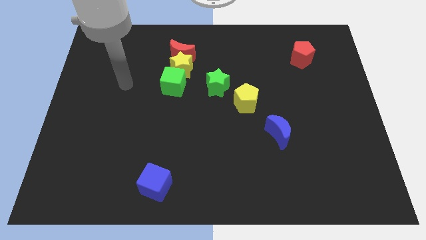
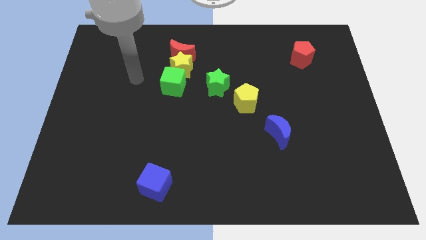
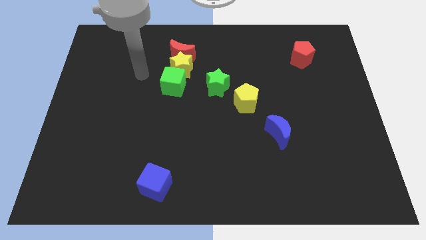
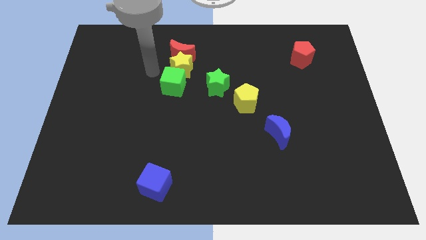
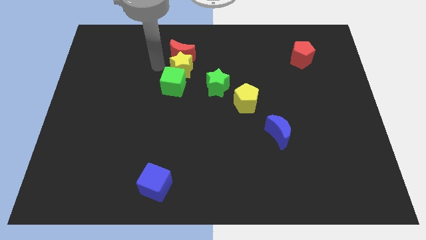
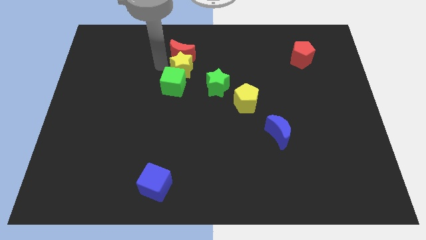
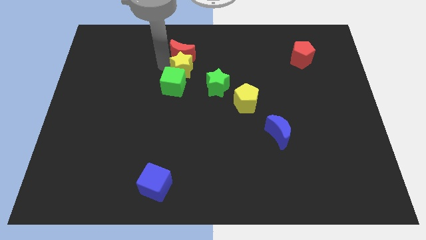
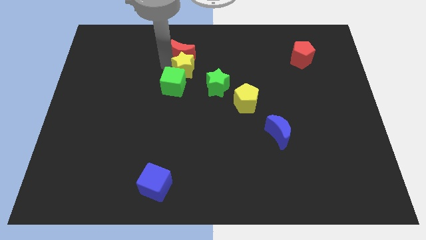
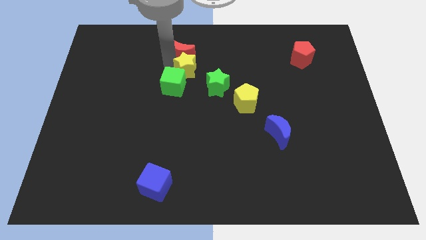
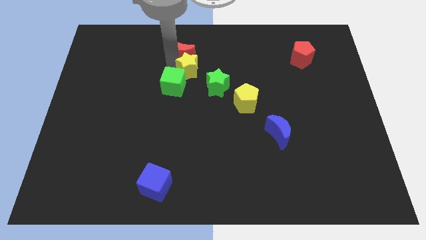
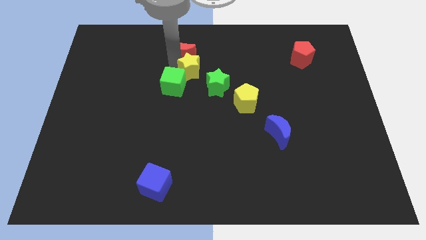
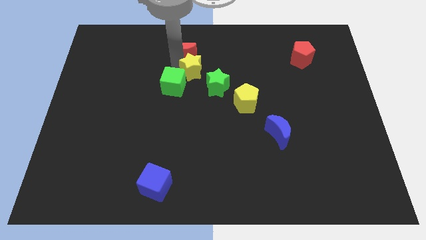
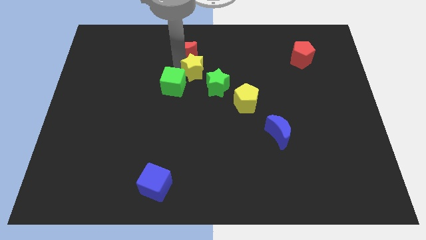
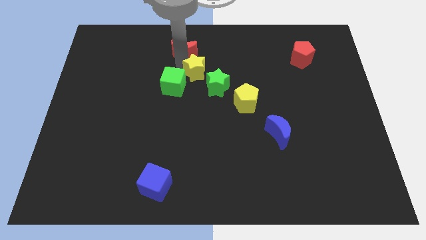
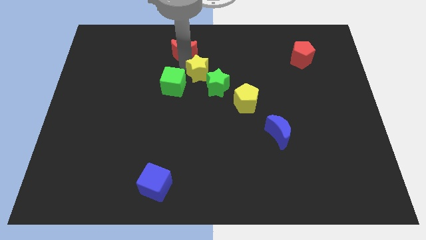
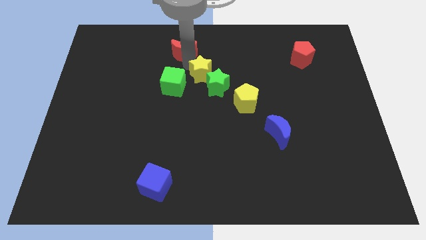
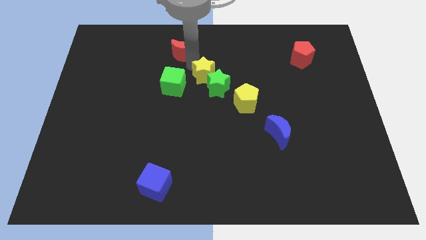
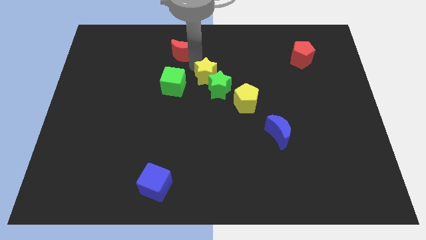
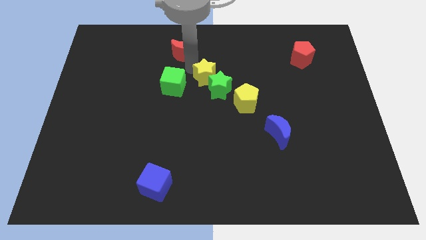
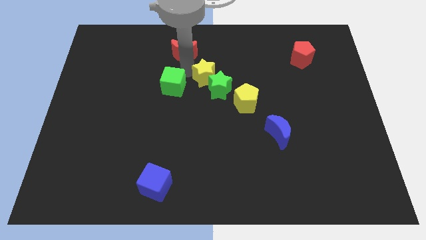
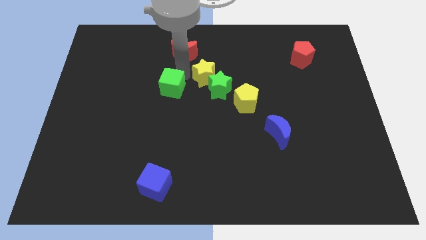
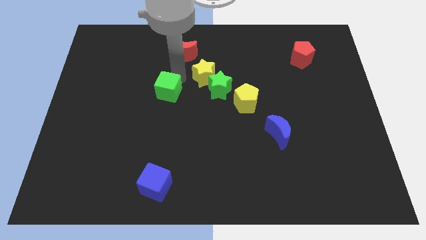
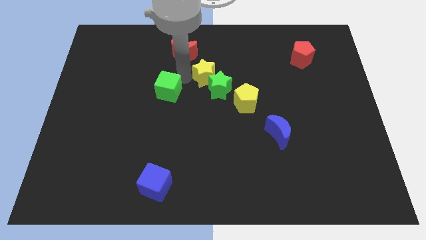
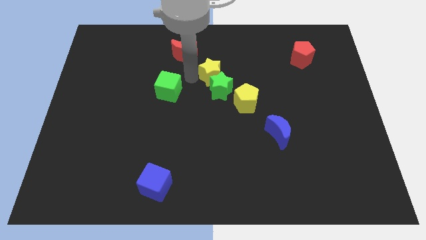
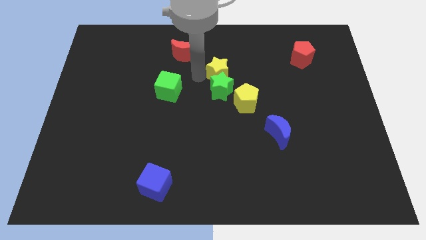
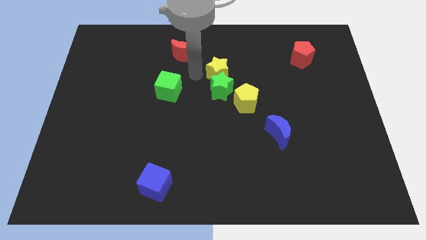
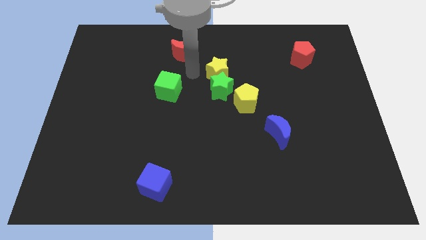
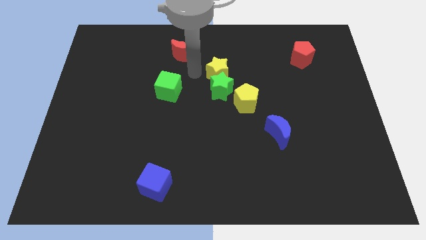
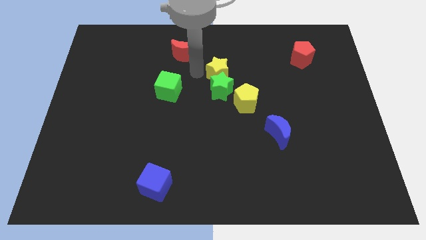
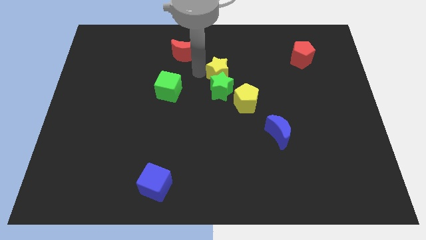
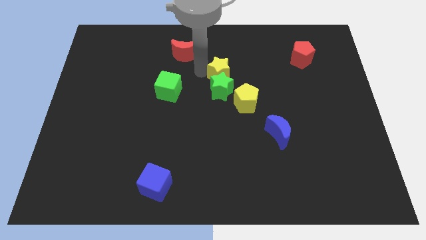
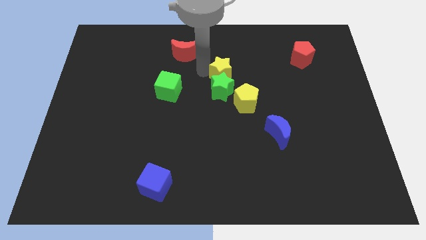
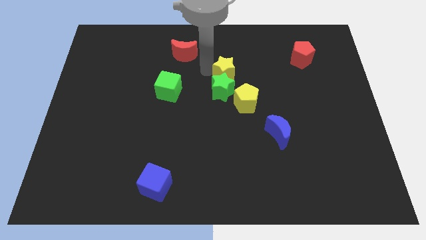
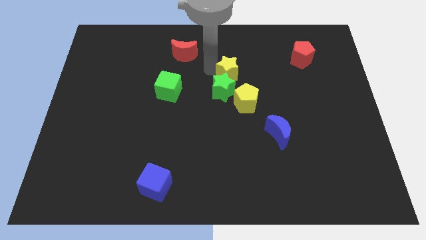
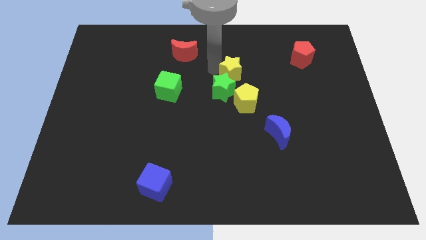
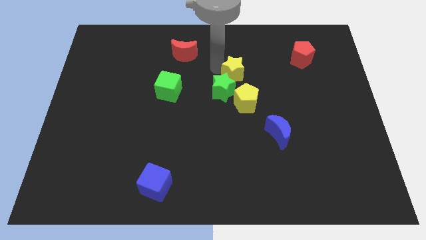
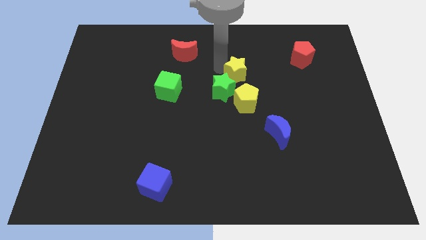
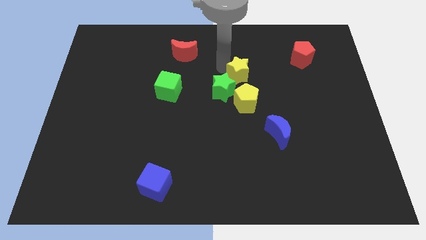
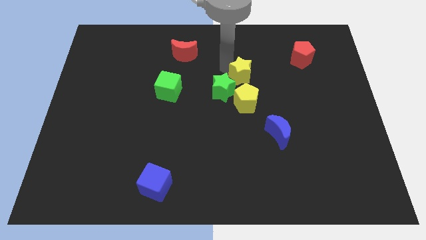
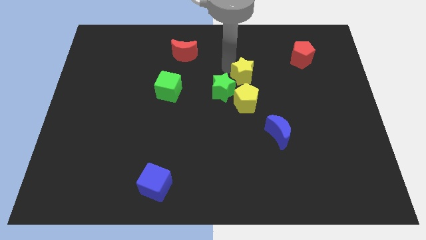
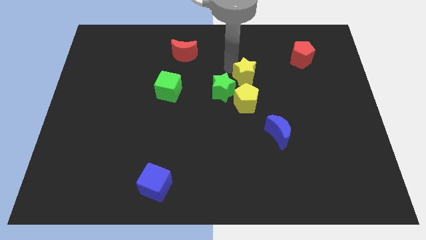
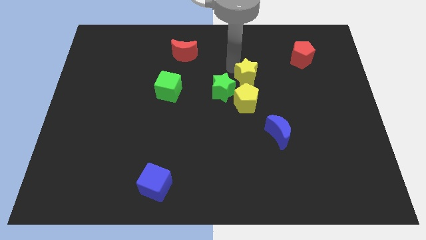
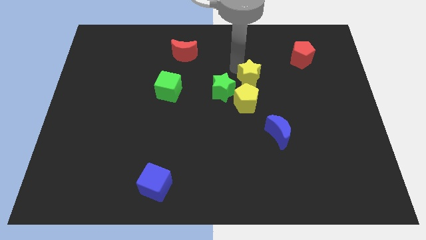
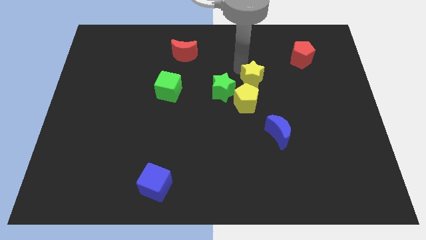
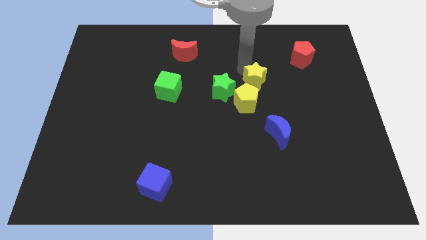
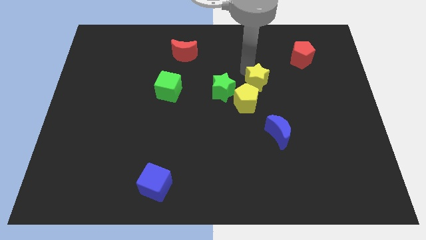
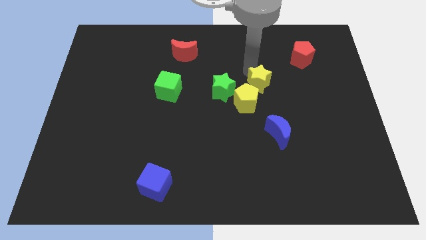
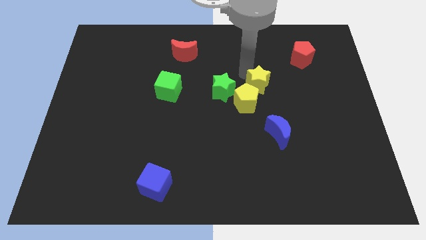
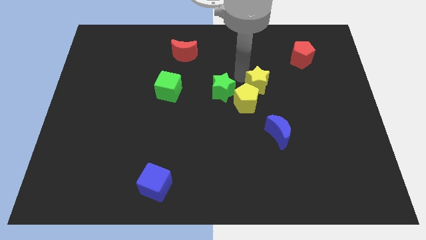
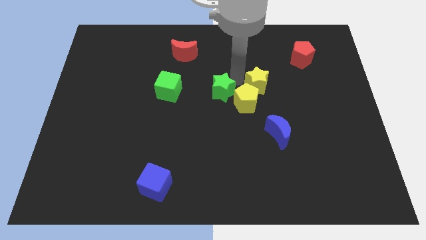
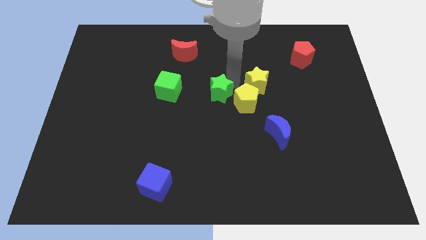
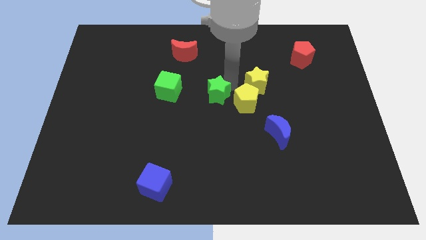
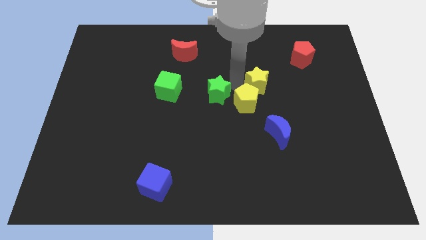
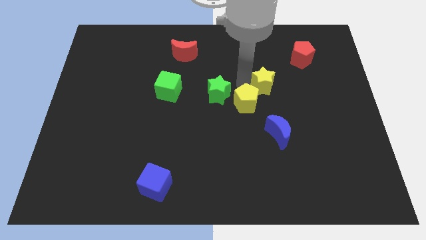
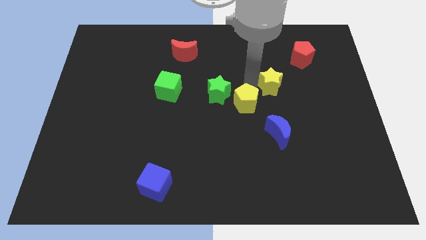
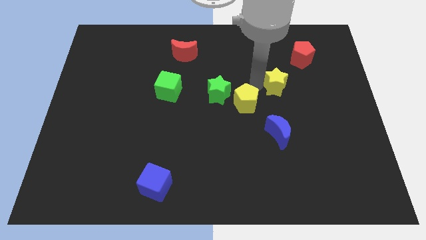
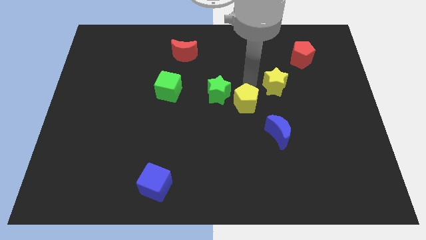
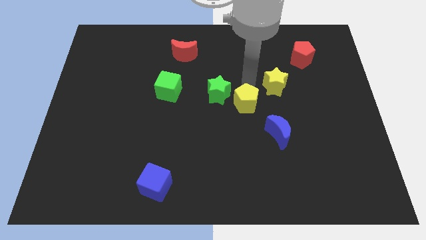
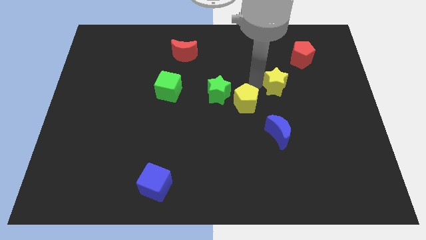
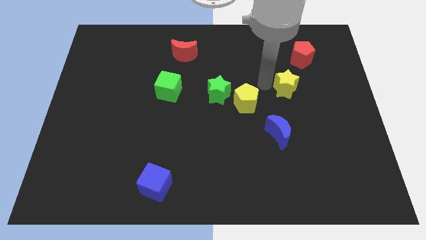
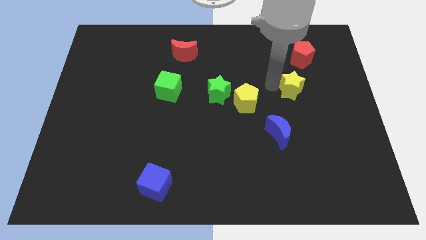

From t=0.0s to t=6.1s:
put the yellow star below the red pentagon

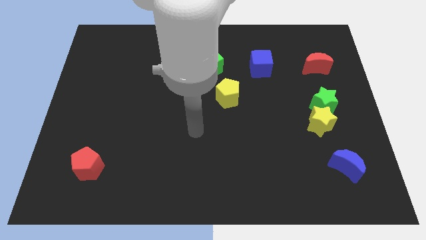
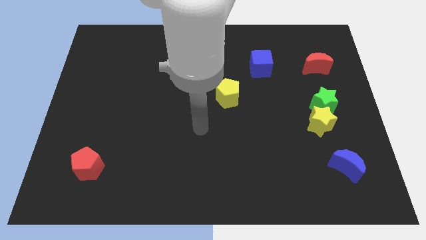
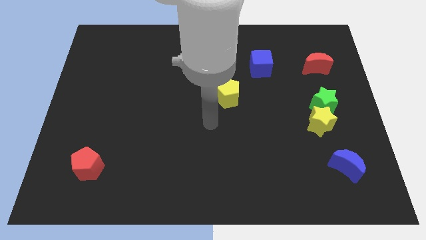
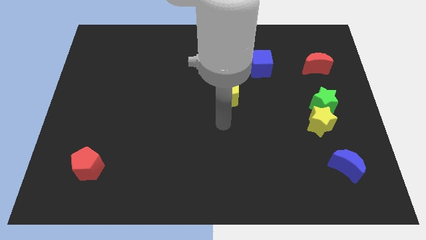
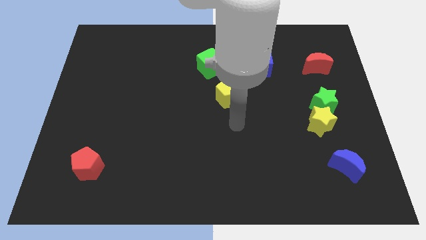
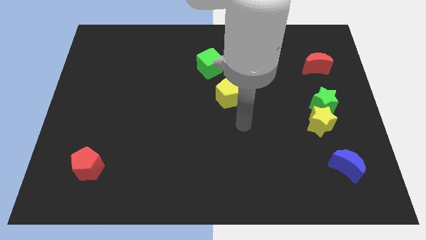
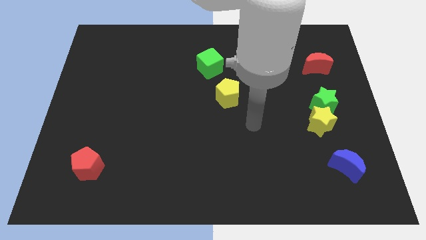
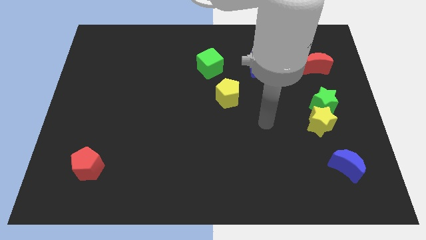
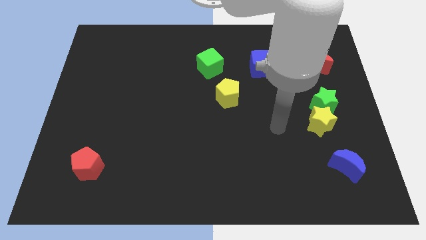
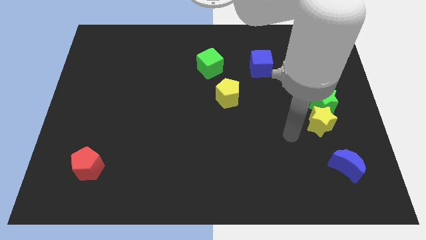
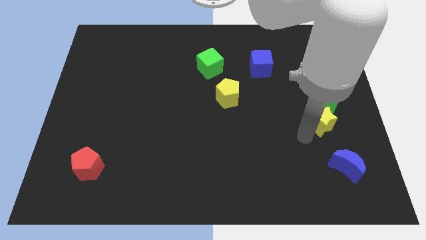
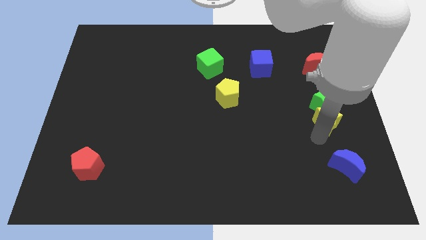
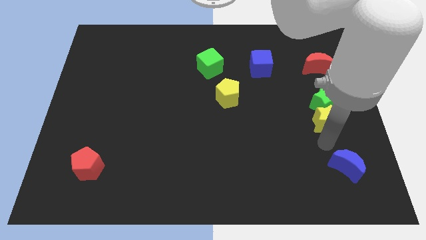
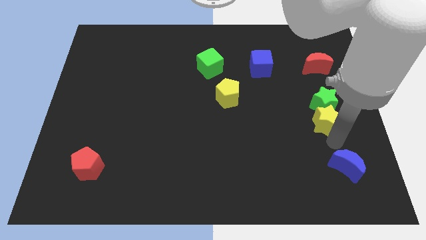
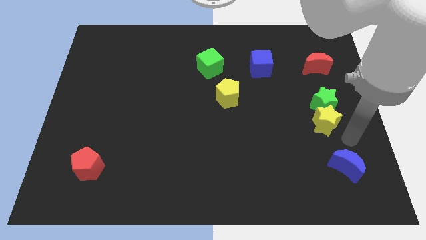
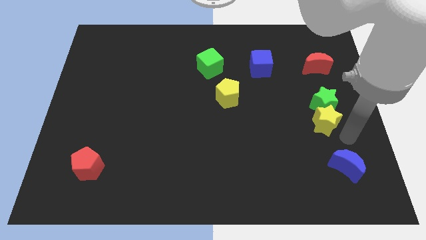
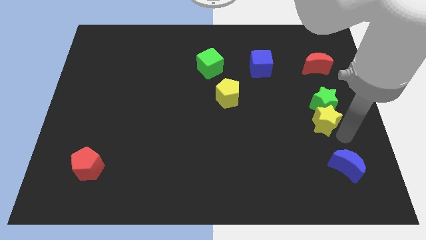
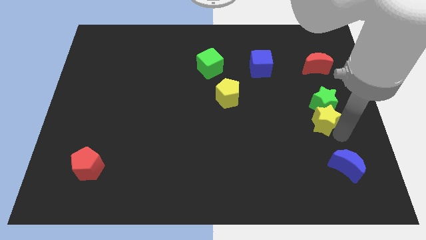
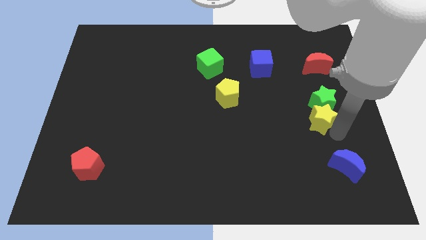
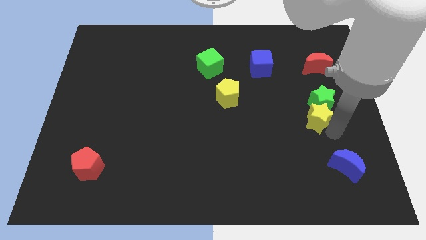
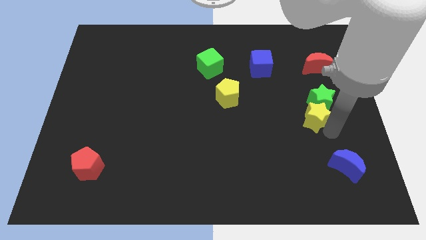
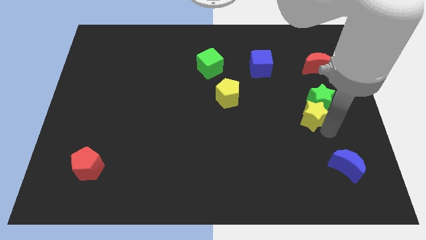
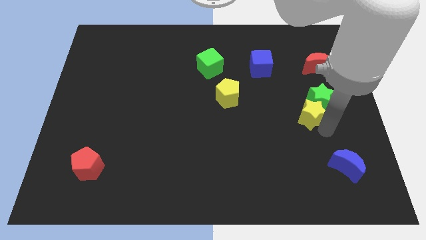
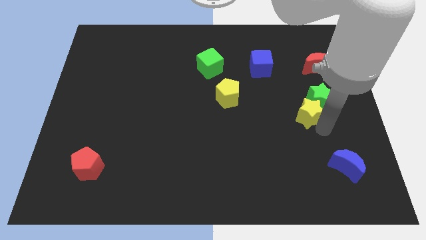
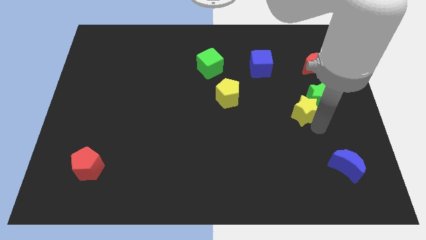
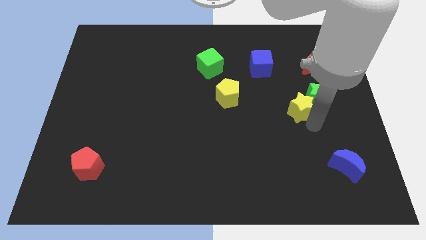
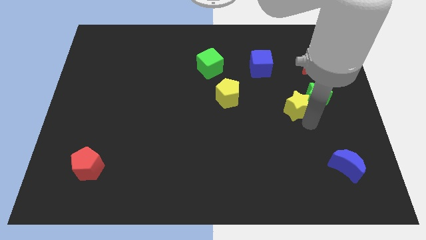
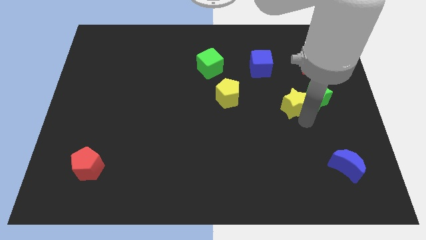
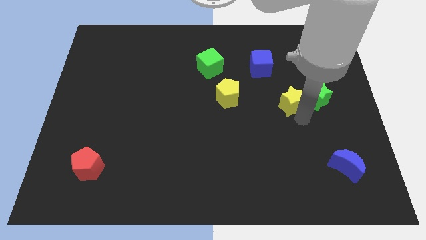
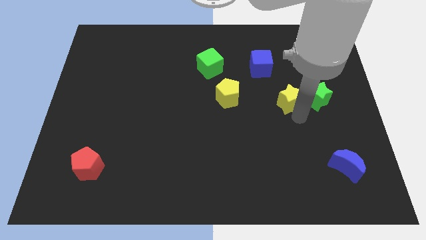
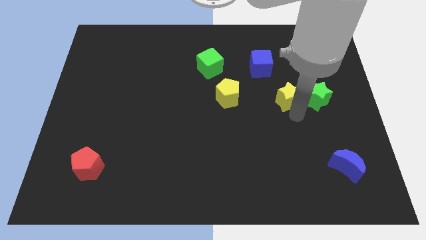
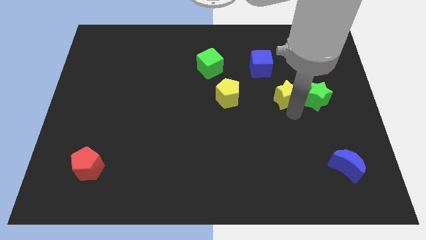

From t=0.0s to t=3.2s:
put the yellow star to the bottom right side of the blue cube
